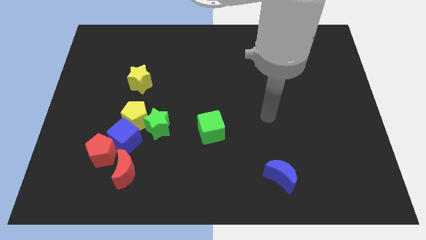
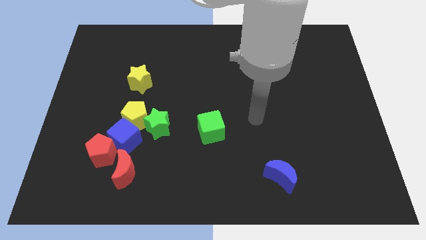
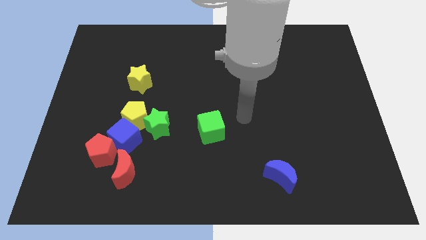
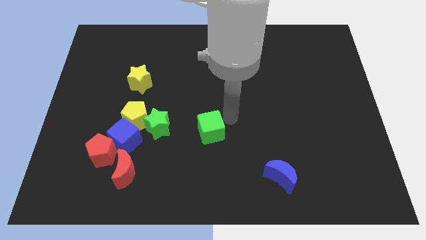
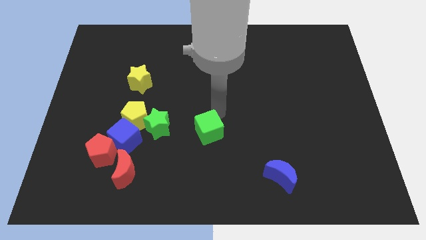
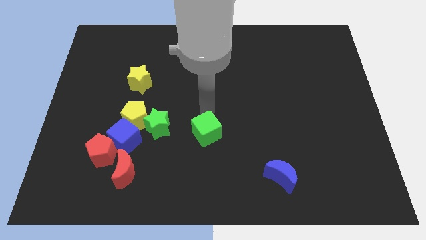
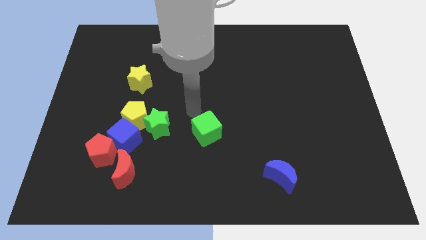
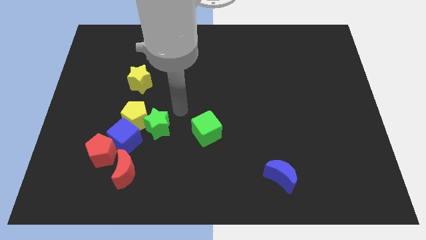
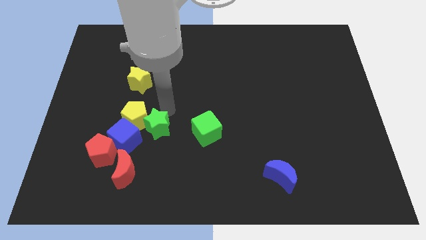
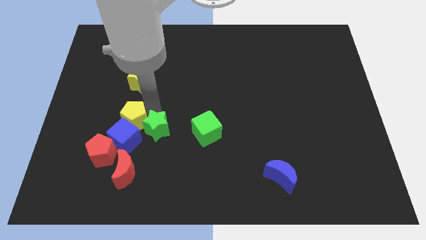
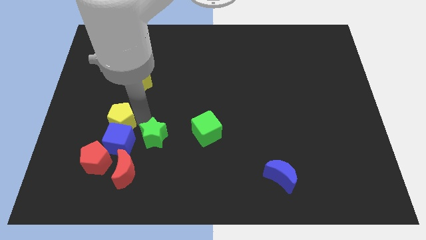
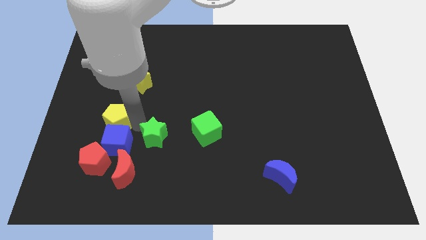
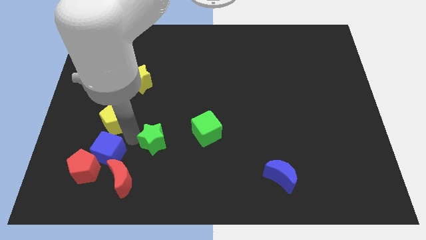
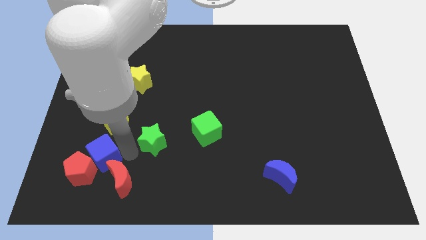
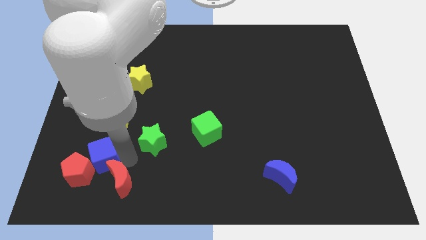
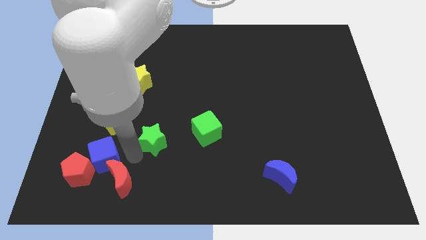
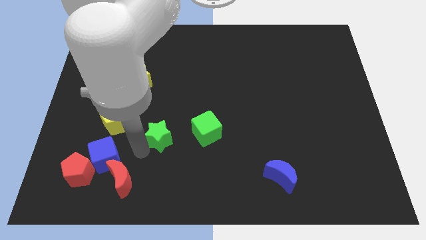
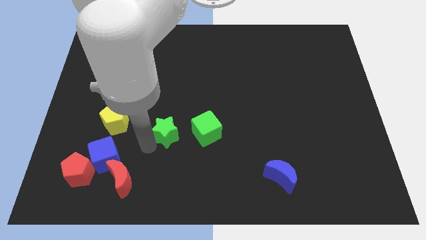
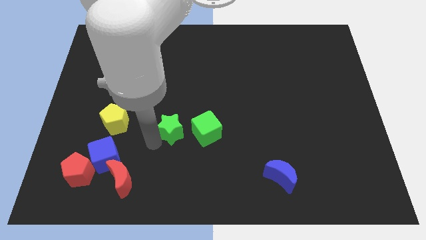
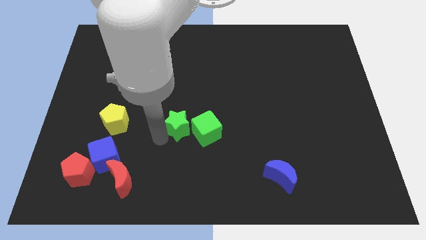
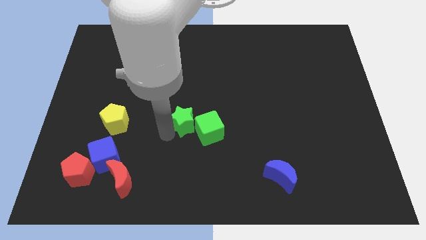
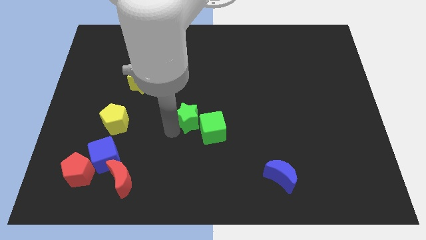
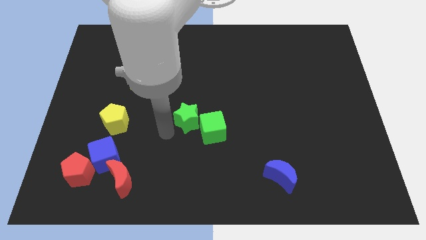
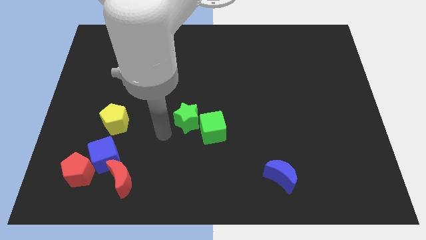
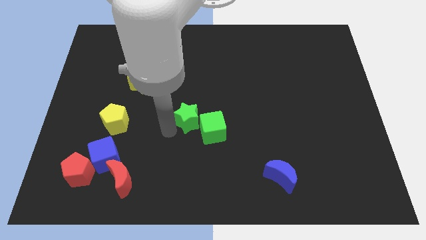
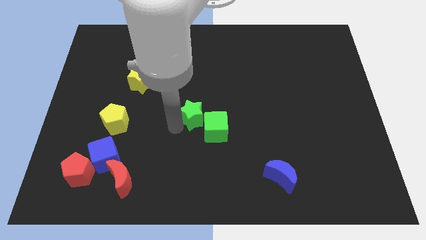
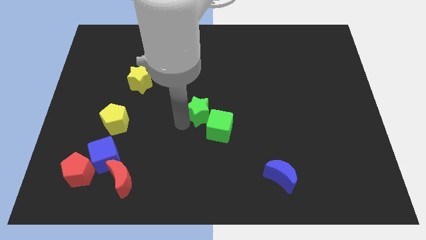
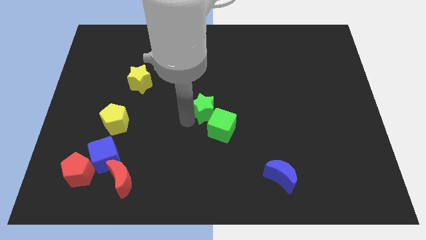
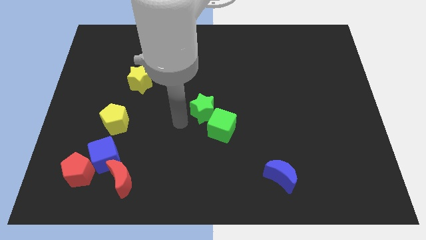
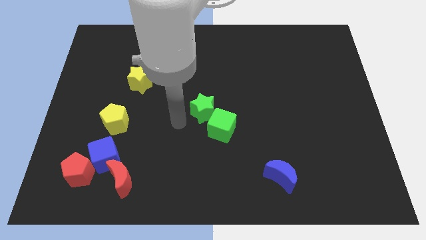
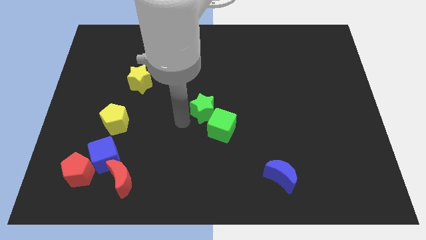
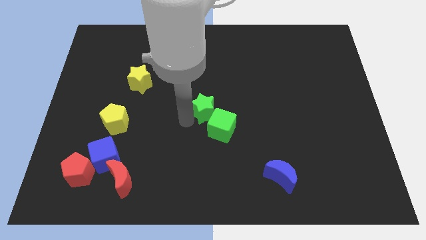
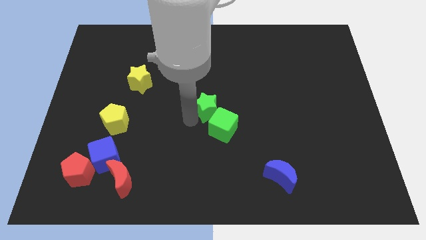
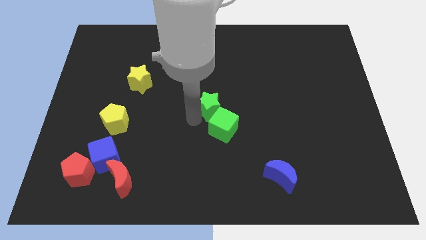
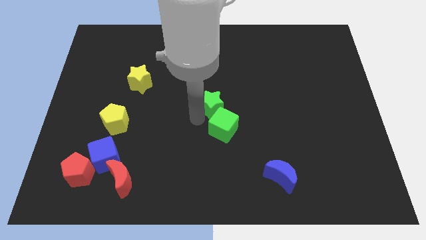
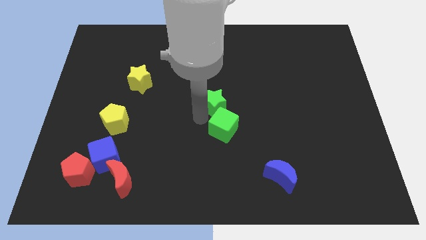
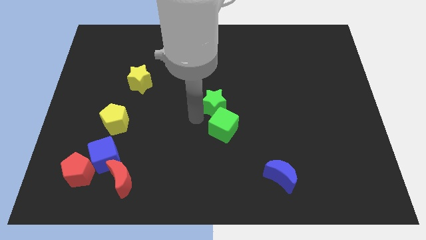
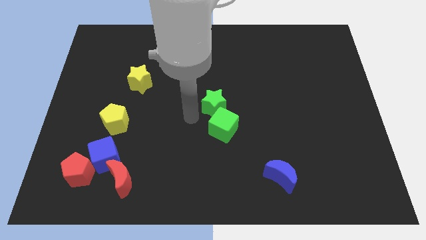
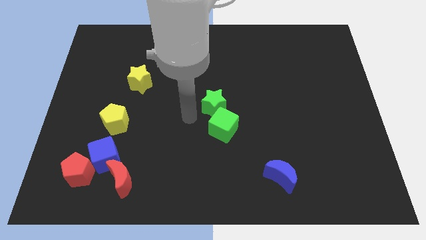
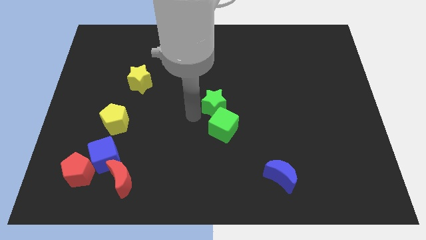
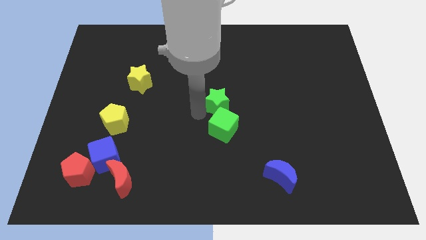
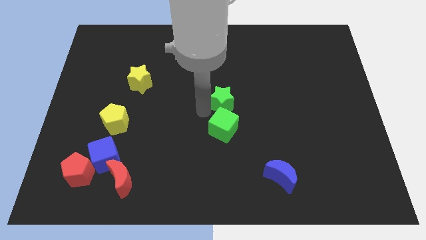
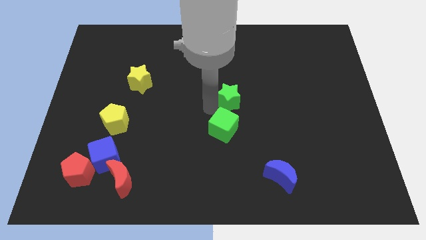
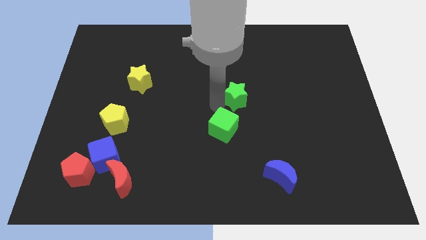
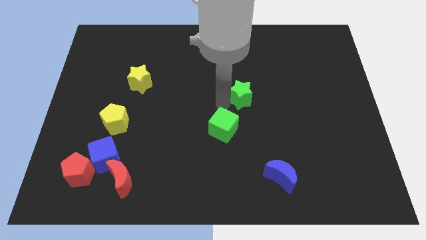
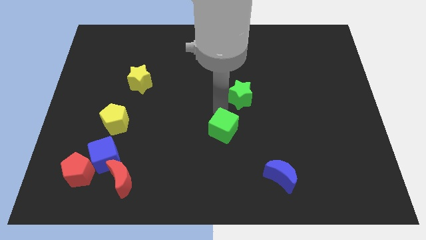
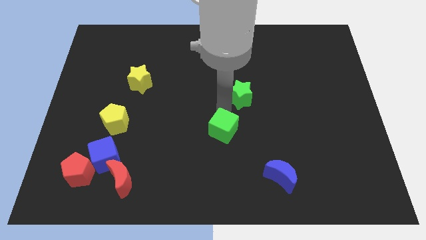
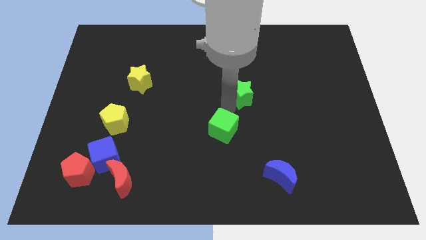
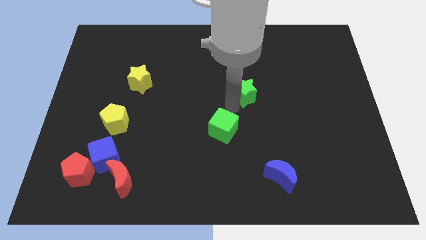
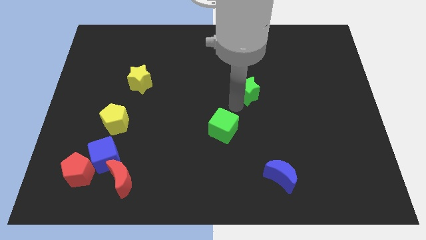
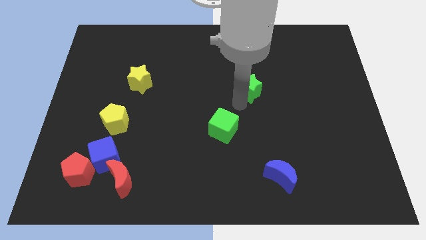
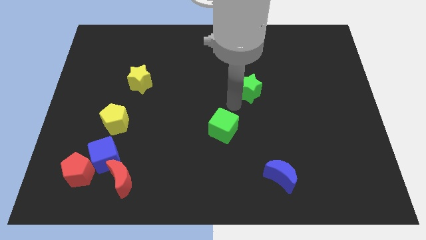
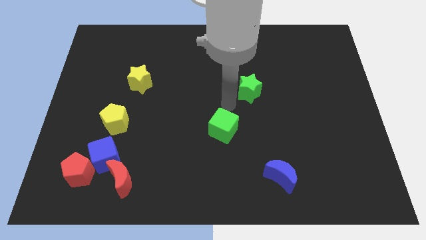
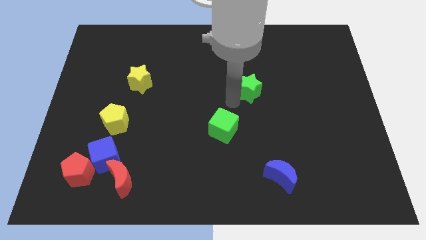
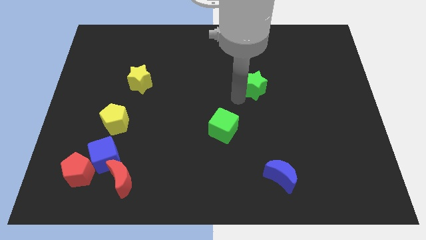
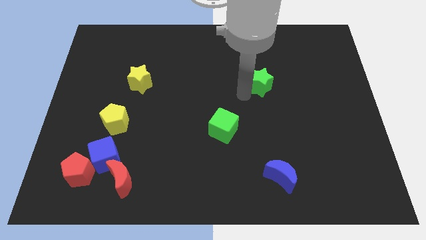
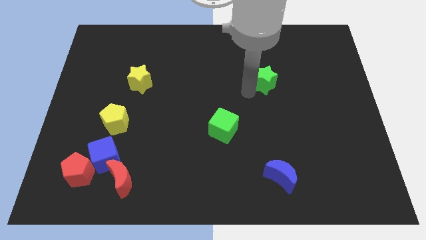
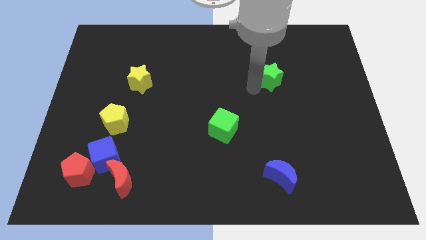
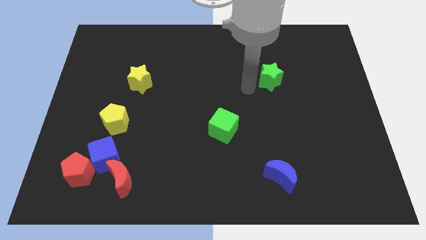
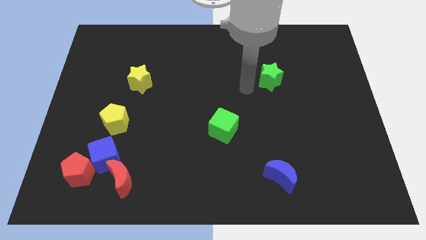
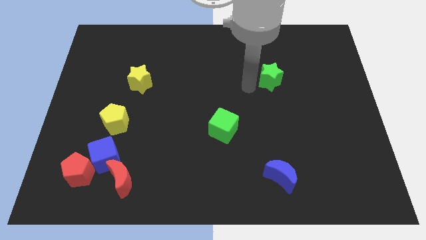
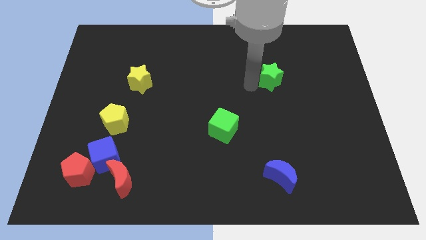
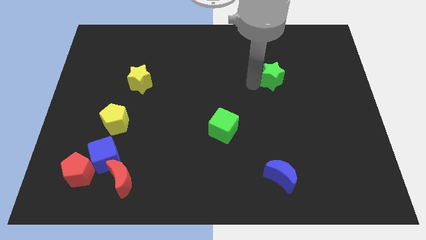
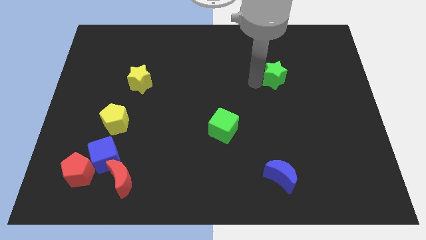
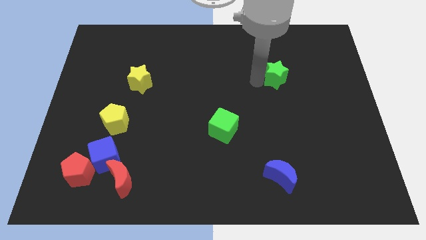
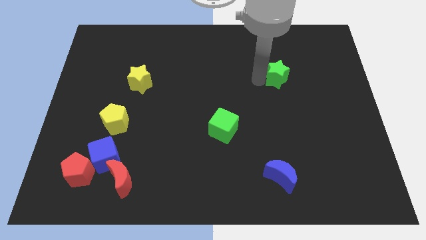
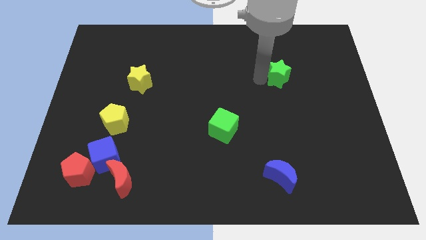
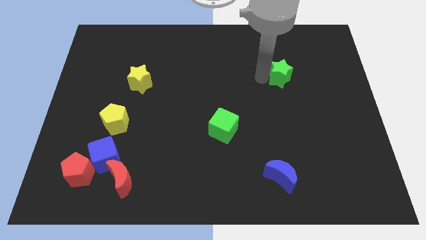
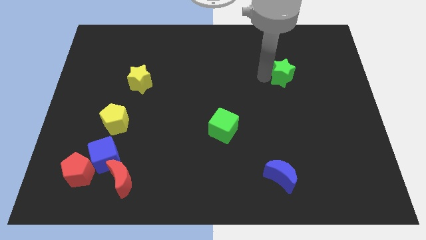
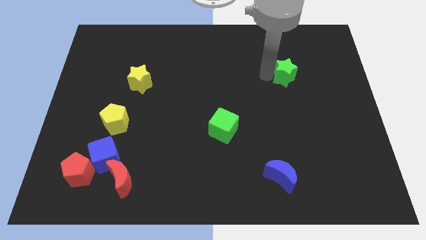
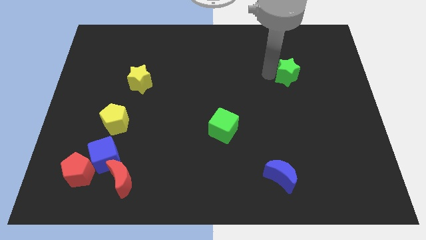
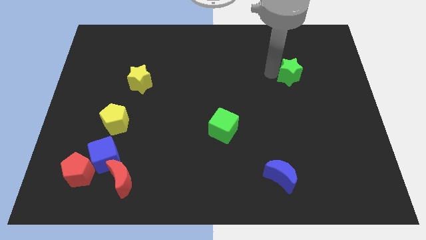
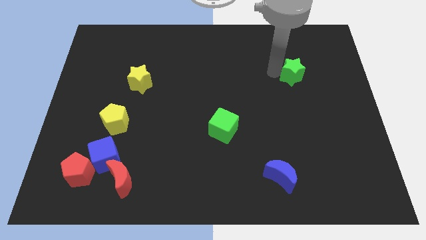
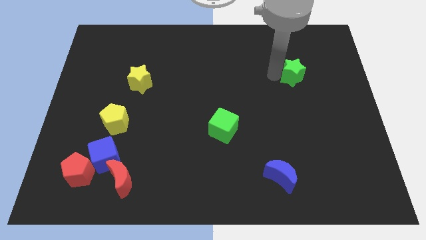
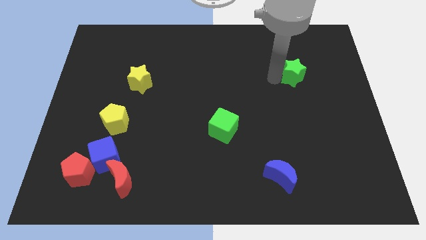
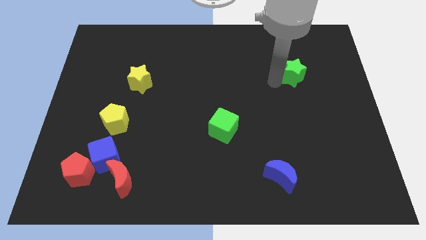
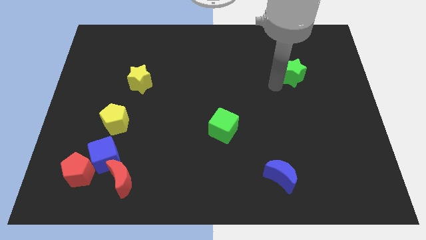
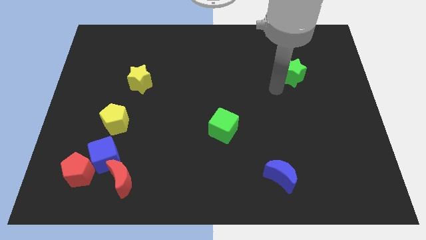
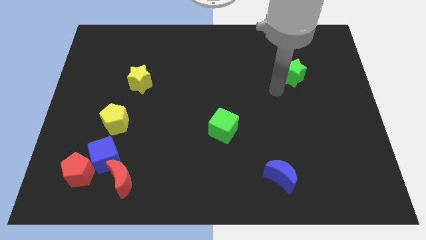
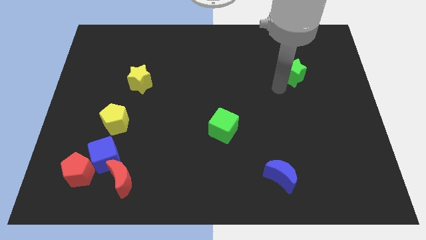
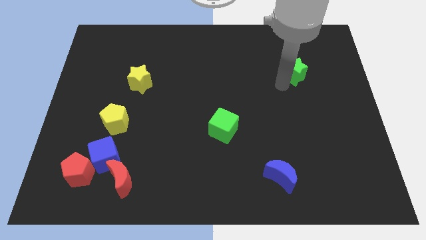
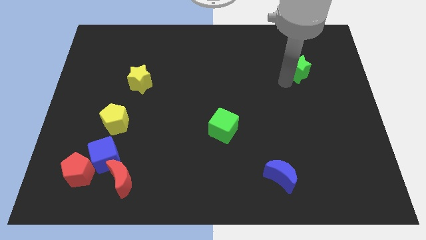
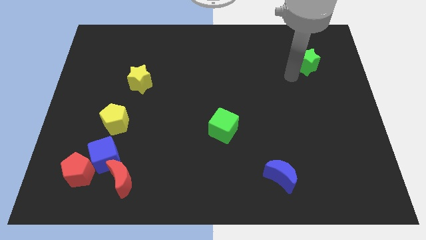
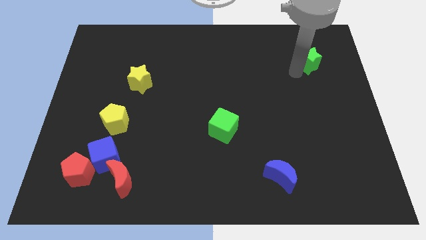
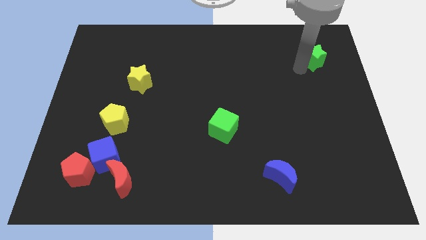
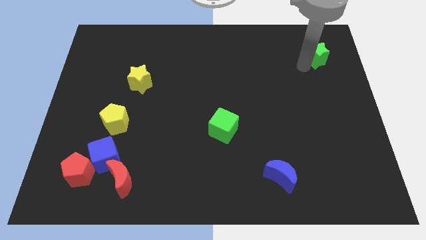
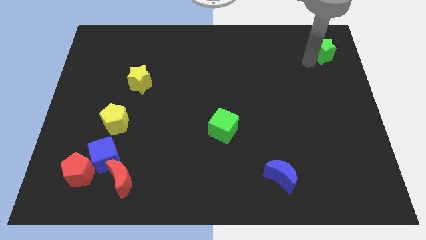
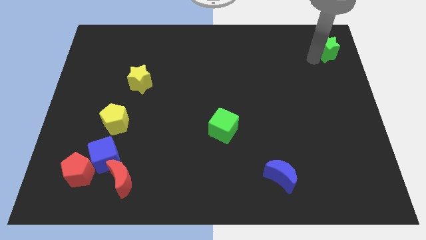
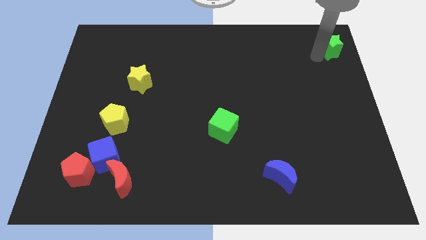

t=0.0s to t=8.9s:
put the green star to the upper right corner
